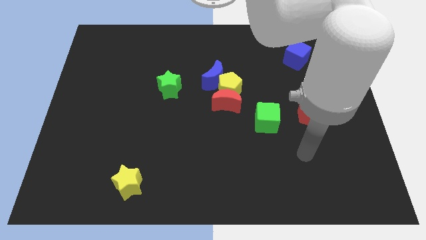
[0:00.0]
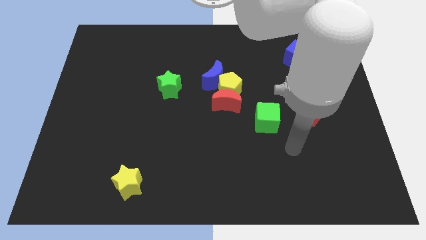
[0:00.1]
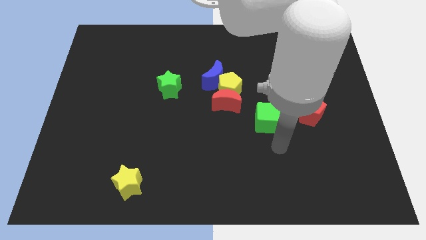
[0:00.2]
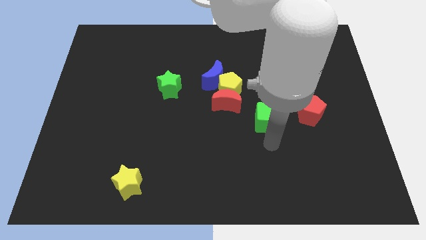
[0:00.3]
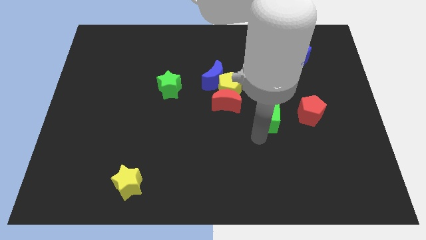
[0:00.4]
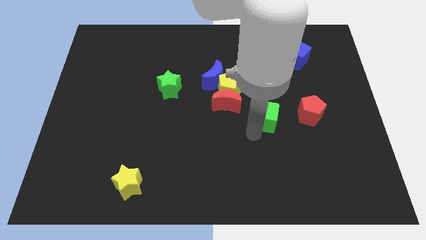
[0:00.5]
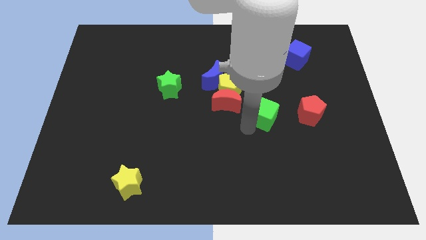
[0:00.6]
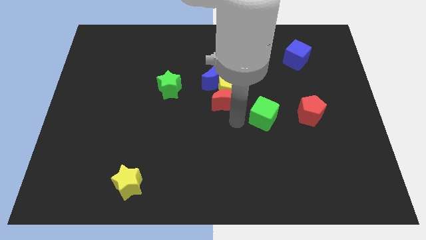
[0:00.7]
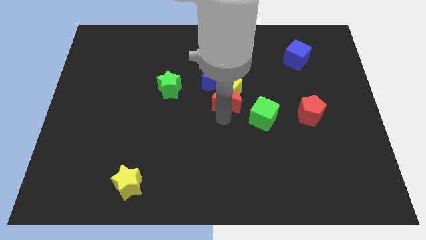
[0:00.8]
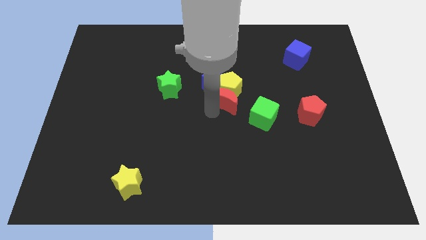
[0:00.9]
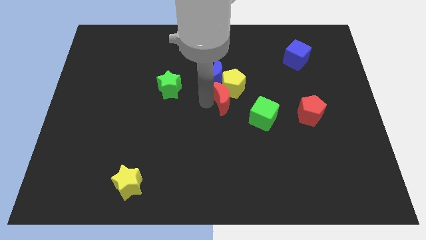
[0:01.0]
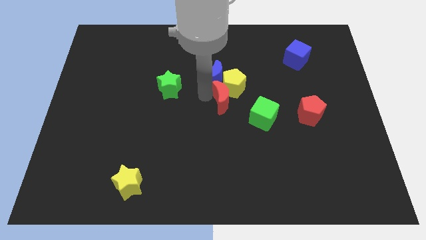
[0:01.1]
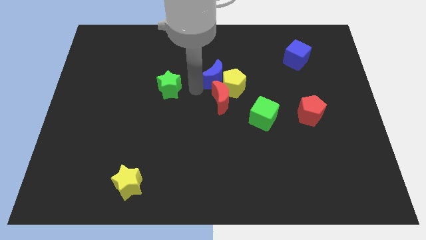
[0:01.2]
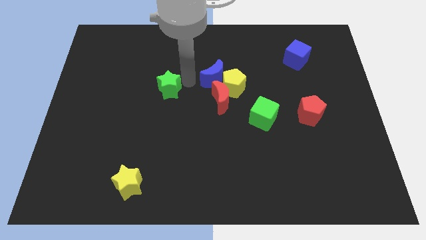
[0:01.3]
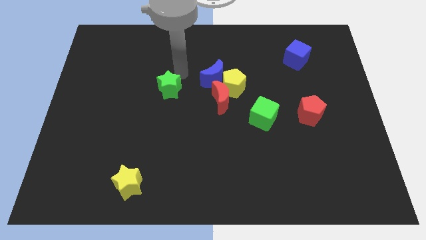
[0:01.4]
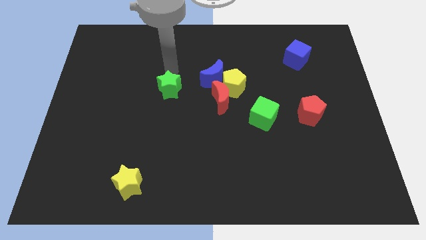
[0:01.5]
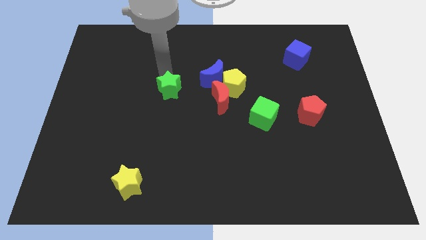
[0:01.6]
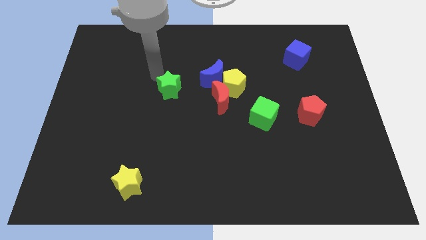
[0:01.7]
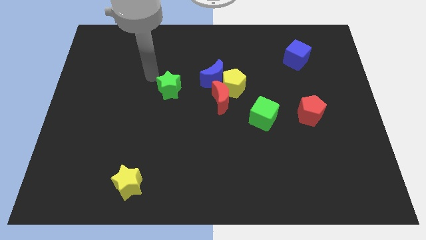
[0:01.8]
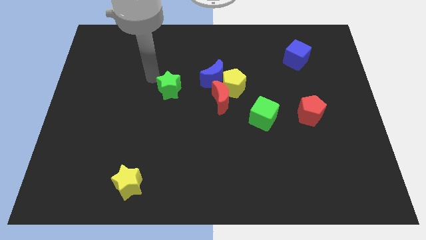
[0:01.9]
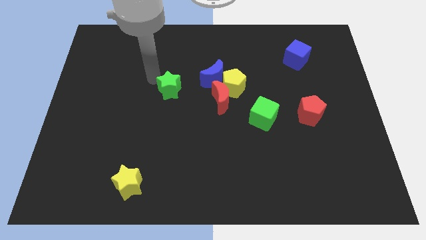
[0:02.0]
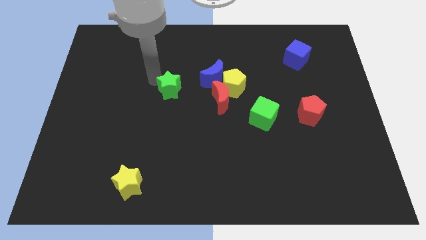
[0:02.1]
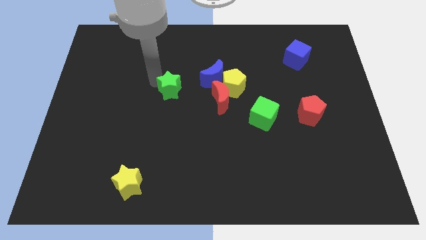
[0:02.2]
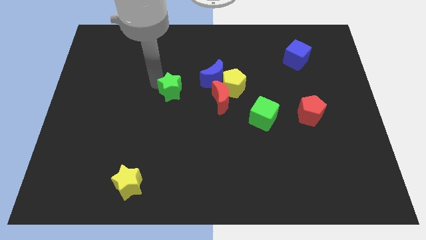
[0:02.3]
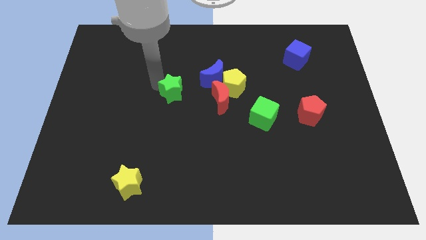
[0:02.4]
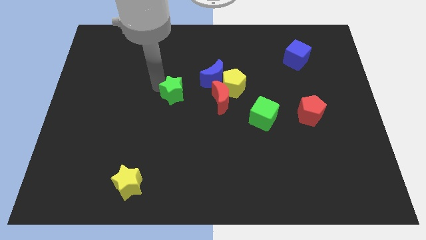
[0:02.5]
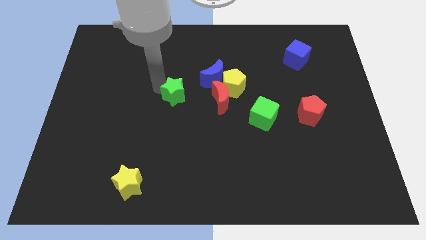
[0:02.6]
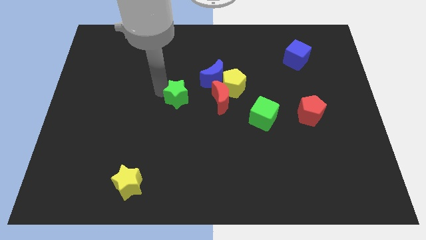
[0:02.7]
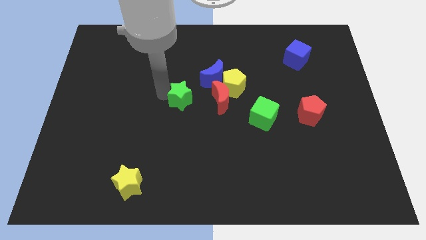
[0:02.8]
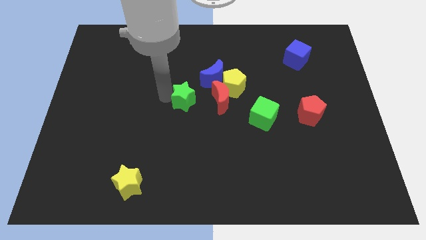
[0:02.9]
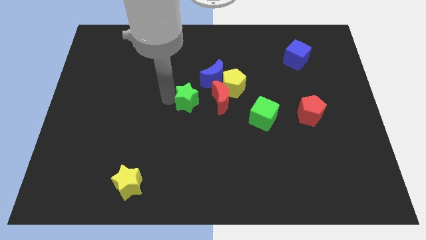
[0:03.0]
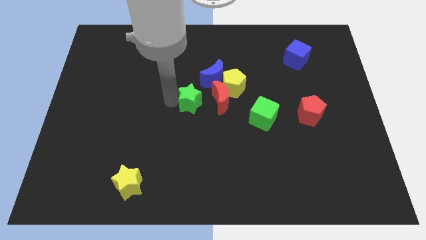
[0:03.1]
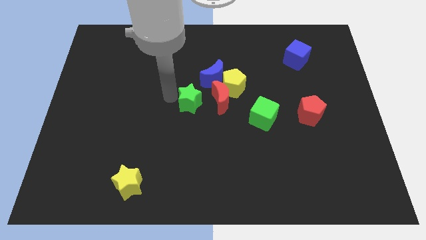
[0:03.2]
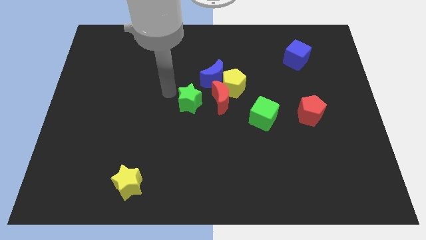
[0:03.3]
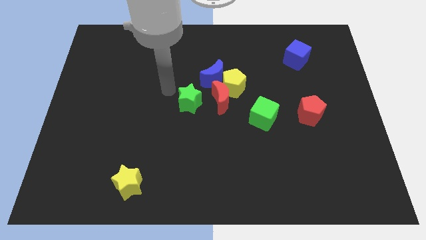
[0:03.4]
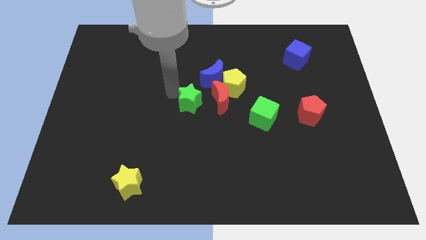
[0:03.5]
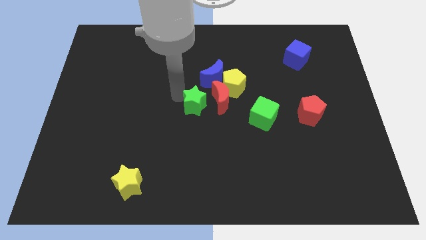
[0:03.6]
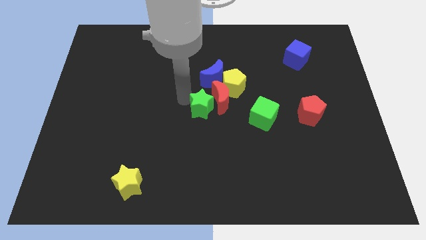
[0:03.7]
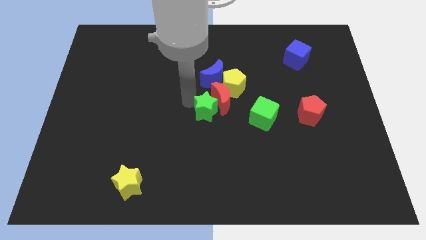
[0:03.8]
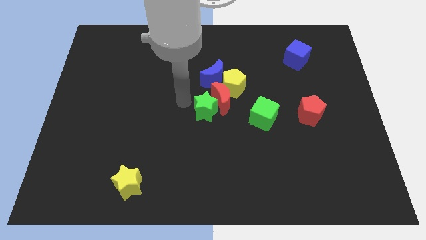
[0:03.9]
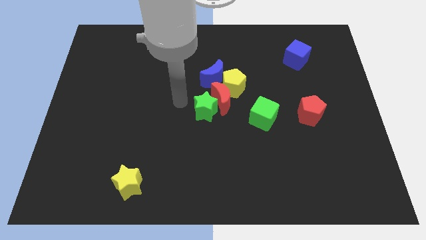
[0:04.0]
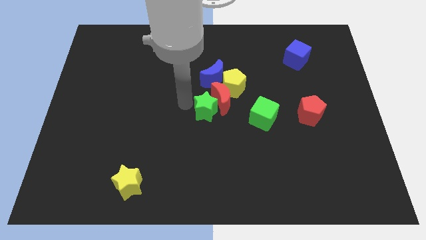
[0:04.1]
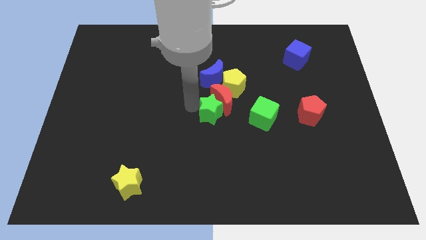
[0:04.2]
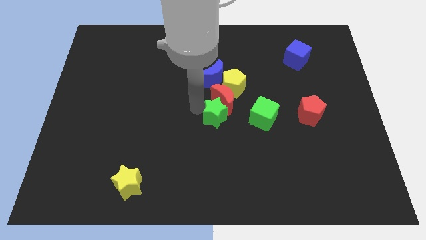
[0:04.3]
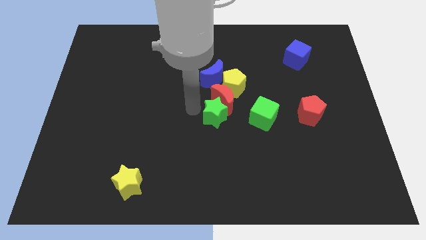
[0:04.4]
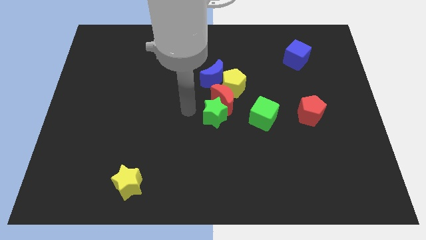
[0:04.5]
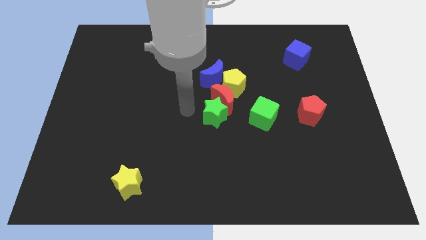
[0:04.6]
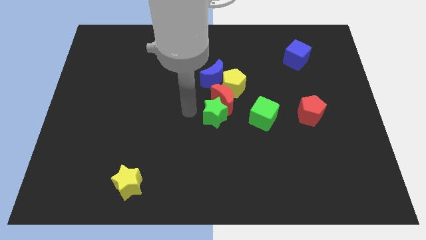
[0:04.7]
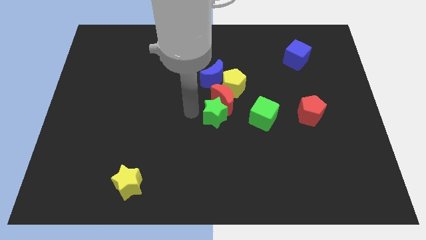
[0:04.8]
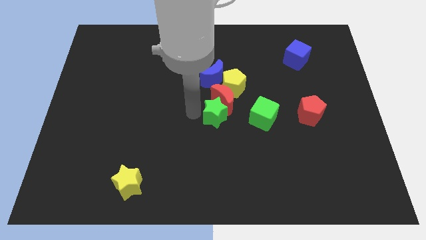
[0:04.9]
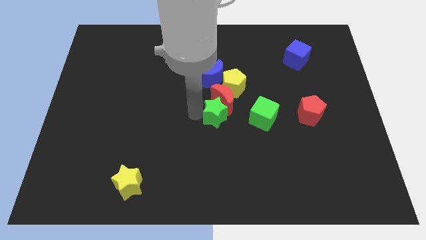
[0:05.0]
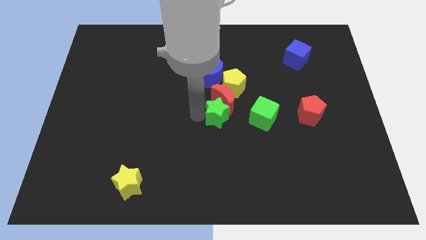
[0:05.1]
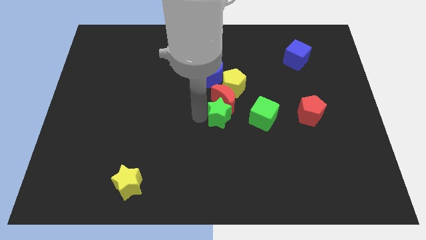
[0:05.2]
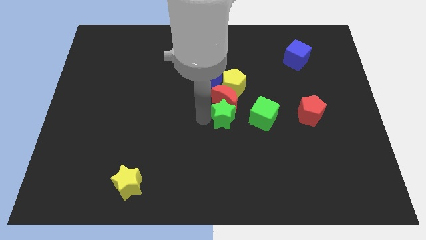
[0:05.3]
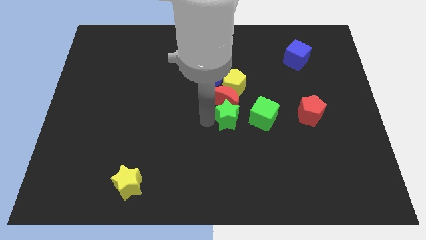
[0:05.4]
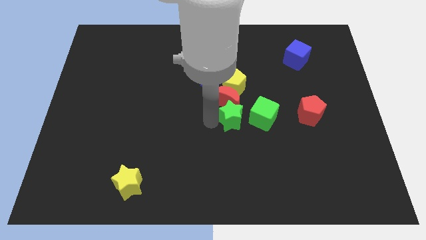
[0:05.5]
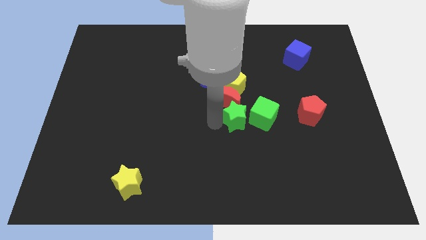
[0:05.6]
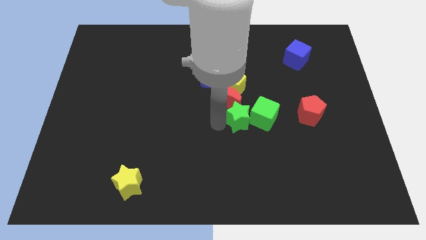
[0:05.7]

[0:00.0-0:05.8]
put the green star towards the green cube

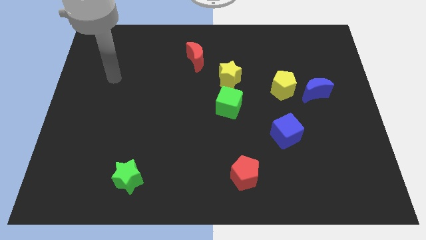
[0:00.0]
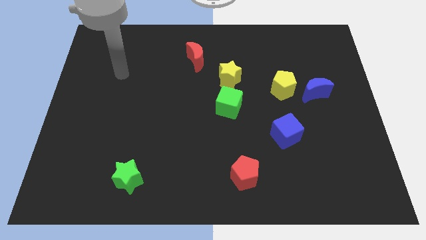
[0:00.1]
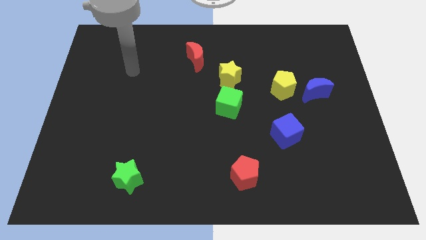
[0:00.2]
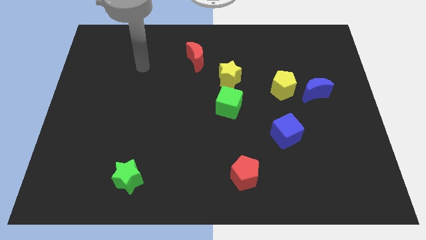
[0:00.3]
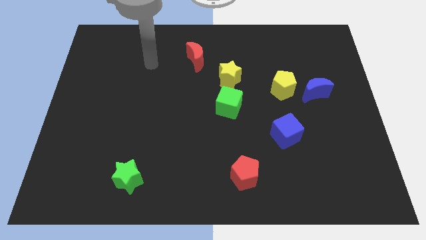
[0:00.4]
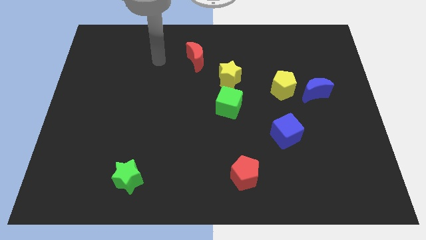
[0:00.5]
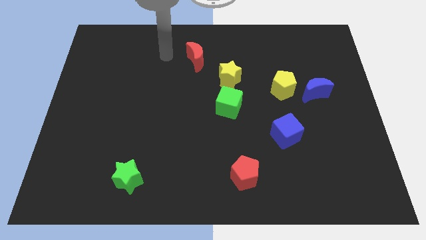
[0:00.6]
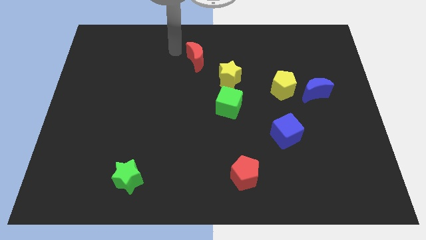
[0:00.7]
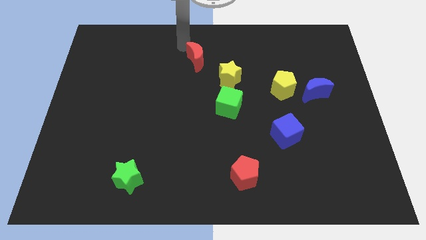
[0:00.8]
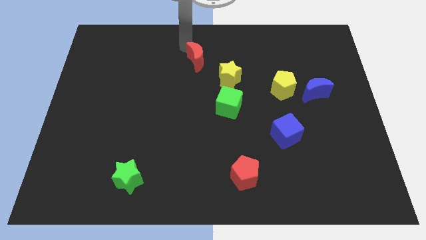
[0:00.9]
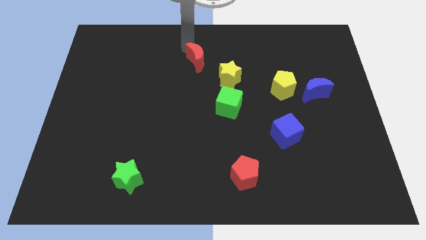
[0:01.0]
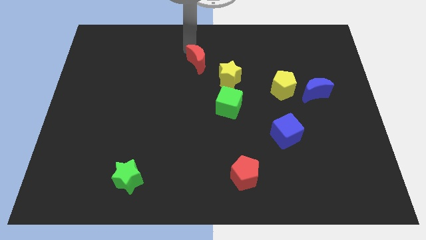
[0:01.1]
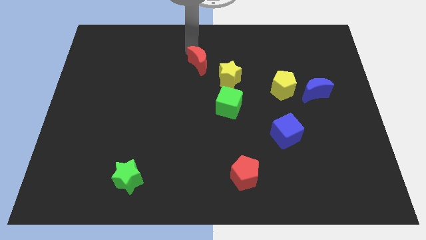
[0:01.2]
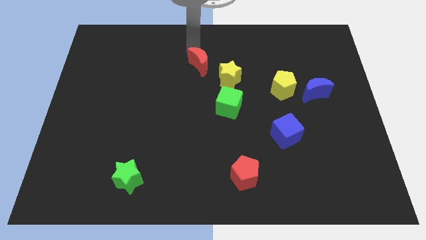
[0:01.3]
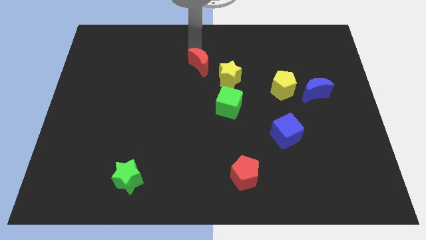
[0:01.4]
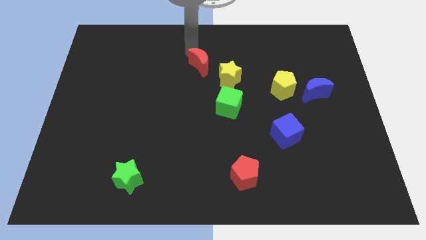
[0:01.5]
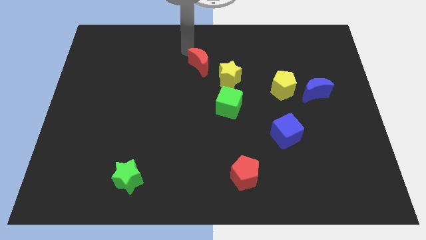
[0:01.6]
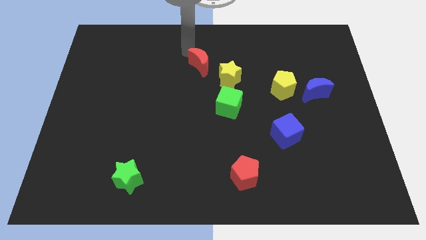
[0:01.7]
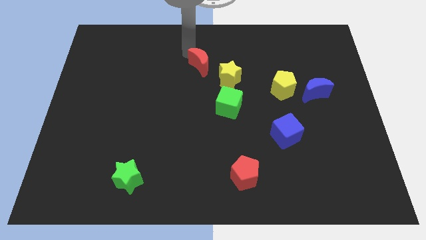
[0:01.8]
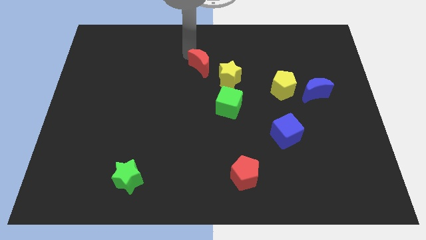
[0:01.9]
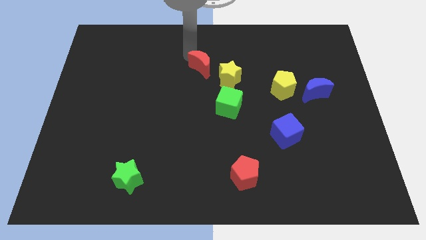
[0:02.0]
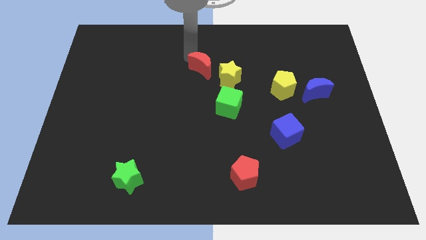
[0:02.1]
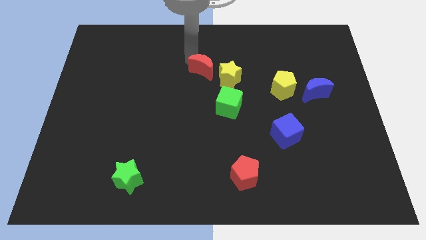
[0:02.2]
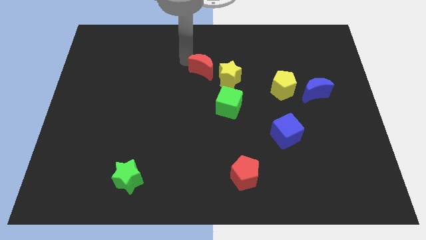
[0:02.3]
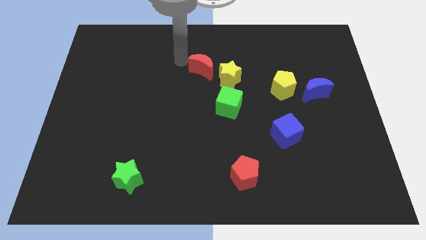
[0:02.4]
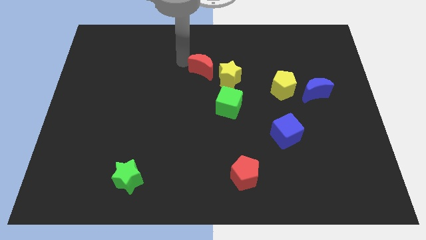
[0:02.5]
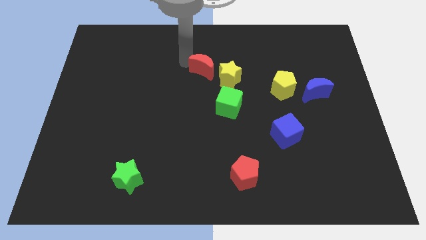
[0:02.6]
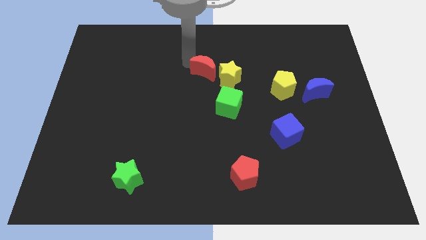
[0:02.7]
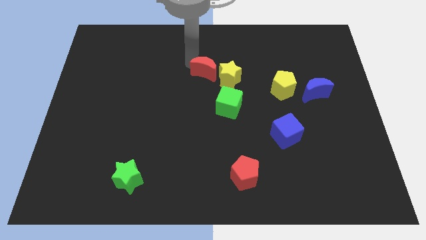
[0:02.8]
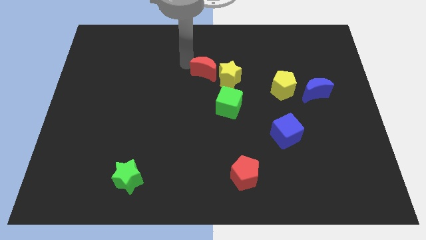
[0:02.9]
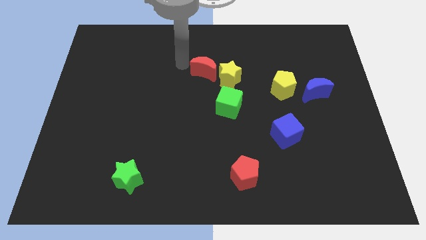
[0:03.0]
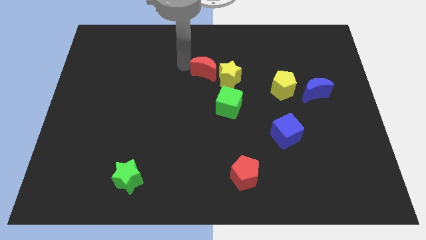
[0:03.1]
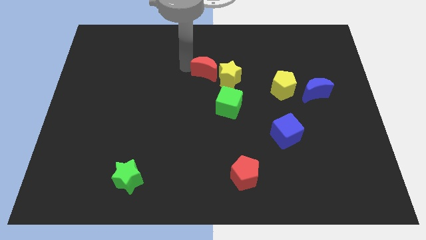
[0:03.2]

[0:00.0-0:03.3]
push the red moon towards the yellow star
